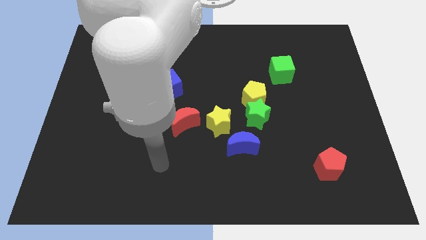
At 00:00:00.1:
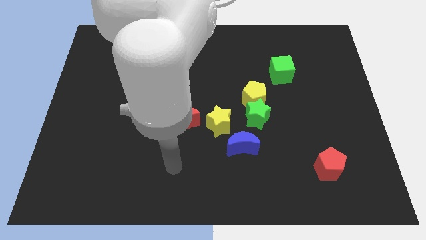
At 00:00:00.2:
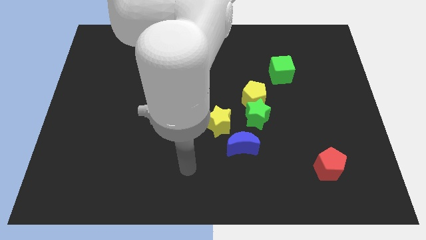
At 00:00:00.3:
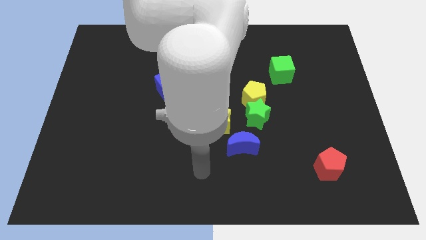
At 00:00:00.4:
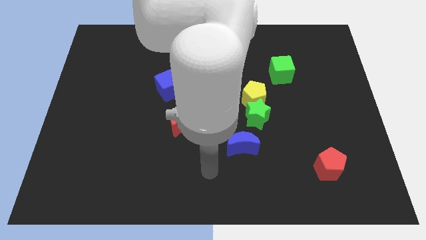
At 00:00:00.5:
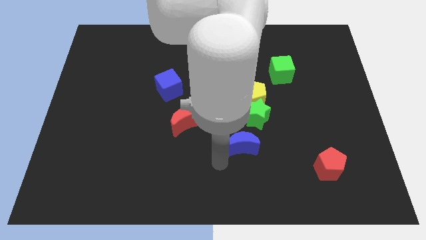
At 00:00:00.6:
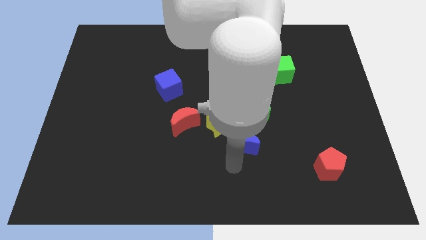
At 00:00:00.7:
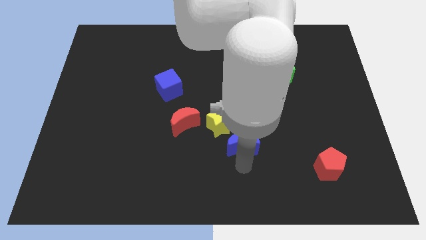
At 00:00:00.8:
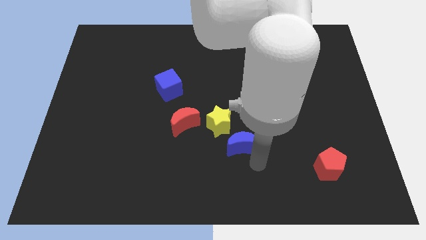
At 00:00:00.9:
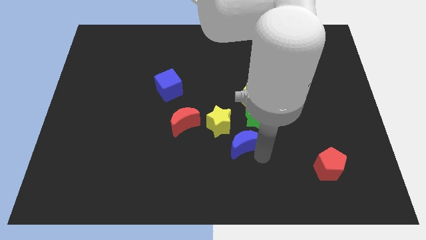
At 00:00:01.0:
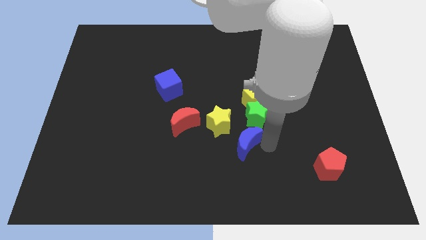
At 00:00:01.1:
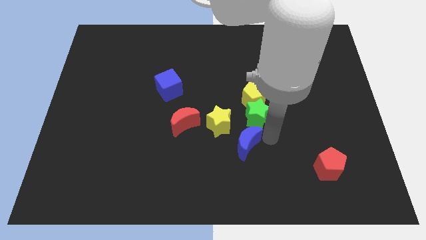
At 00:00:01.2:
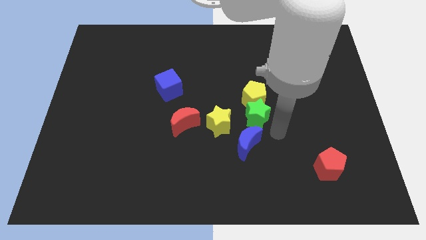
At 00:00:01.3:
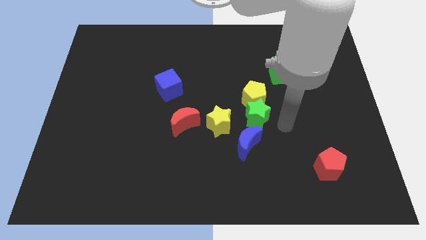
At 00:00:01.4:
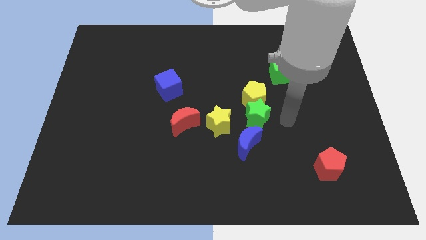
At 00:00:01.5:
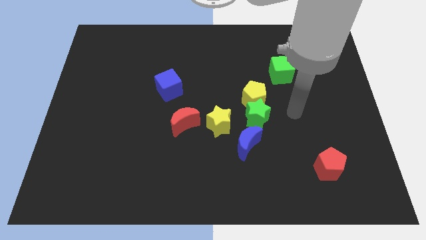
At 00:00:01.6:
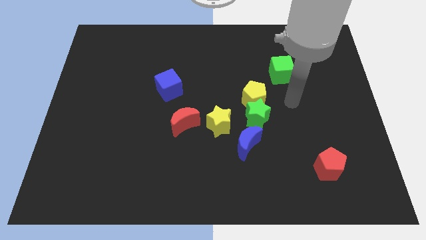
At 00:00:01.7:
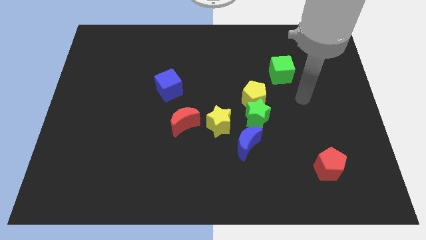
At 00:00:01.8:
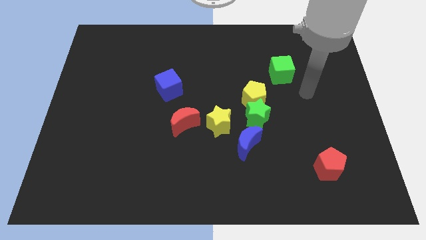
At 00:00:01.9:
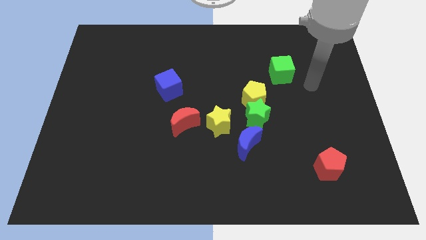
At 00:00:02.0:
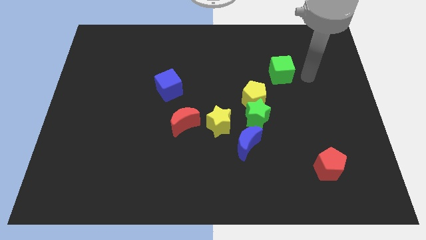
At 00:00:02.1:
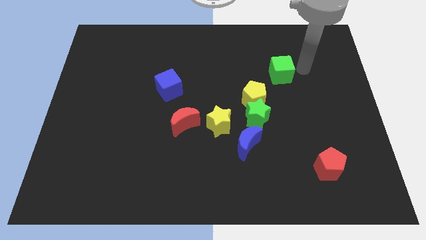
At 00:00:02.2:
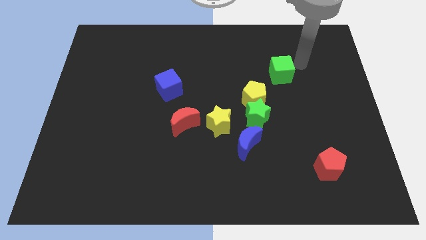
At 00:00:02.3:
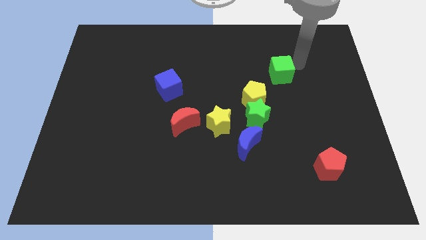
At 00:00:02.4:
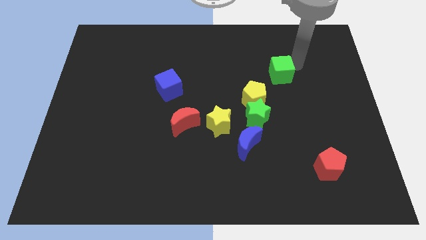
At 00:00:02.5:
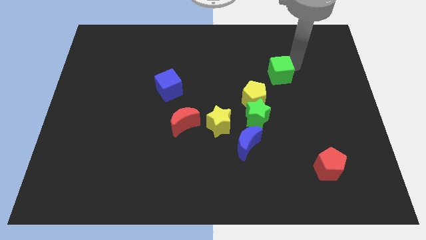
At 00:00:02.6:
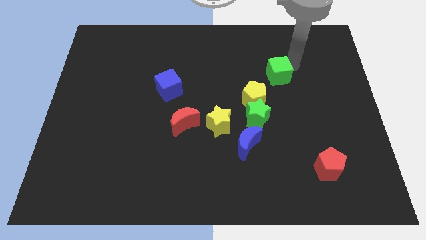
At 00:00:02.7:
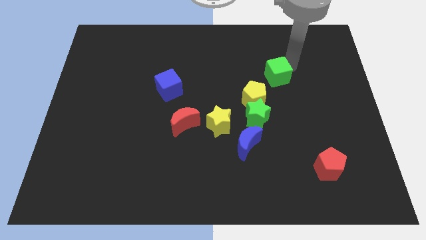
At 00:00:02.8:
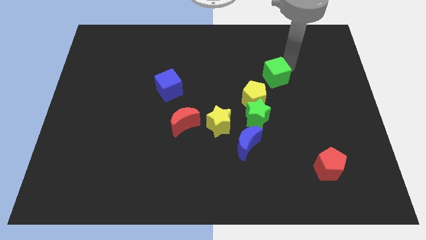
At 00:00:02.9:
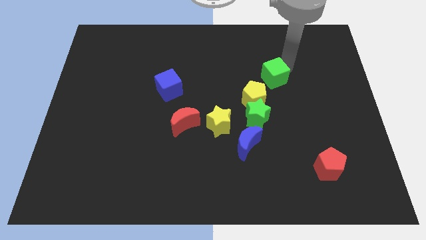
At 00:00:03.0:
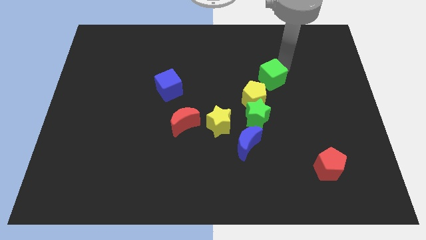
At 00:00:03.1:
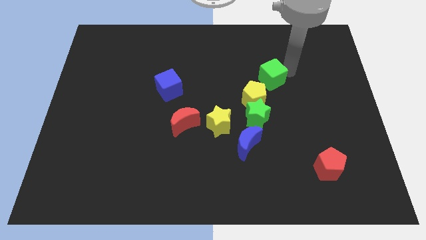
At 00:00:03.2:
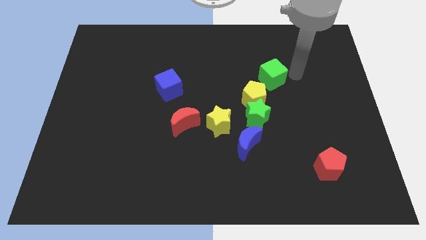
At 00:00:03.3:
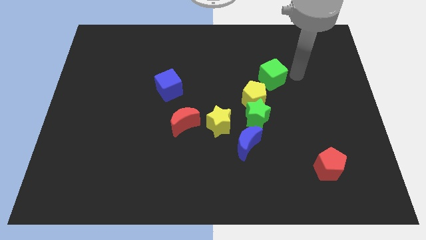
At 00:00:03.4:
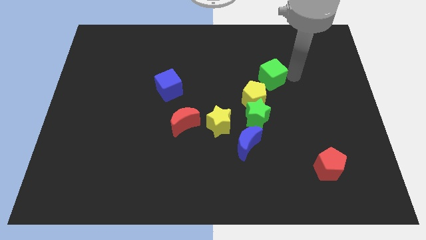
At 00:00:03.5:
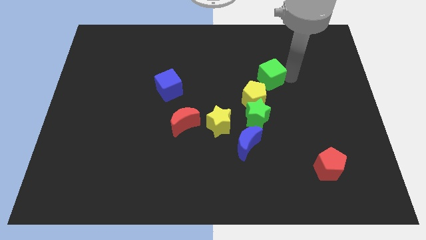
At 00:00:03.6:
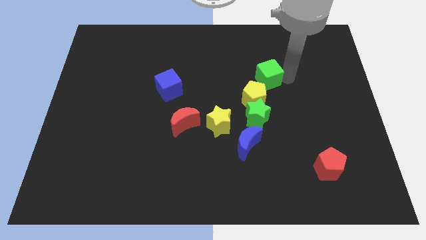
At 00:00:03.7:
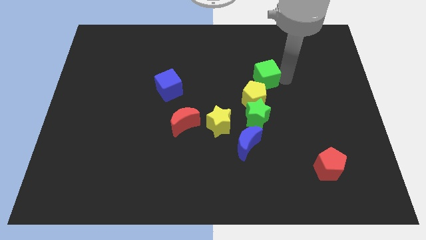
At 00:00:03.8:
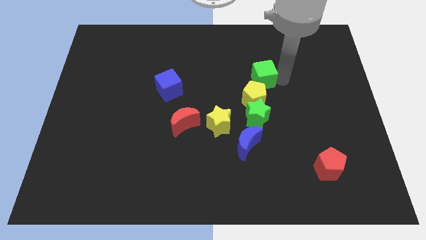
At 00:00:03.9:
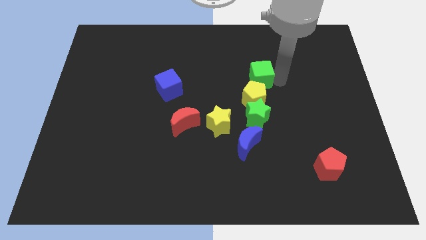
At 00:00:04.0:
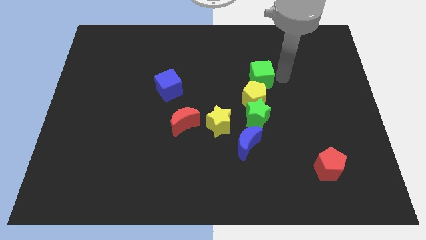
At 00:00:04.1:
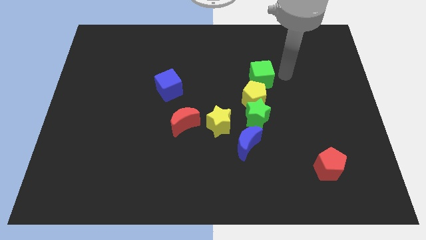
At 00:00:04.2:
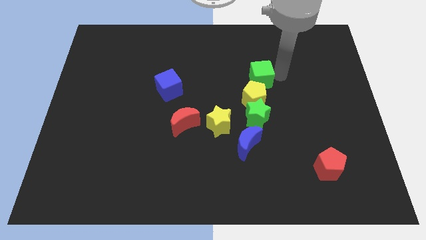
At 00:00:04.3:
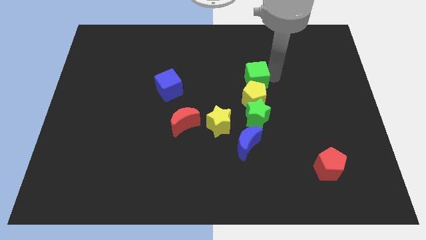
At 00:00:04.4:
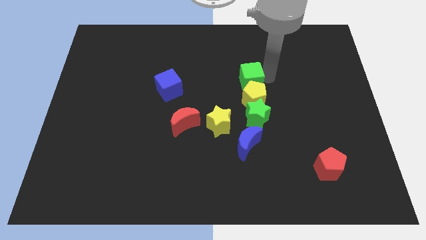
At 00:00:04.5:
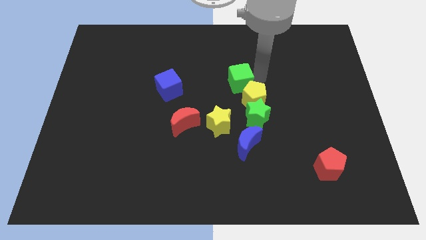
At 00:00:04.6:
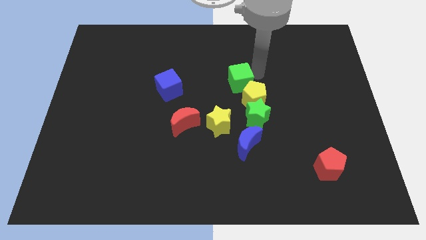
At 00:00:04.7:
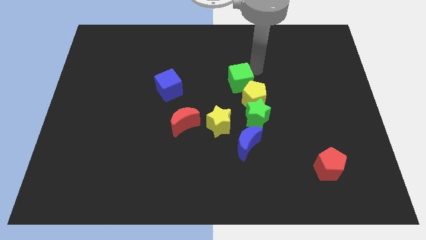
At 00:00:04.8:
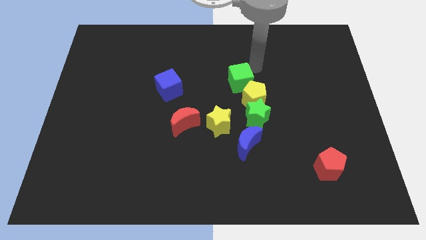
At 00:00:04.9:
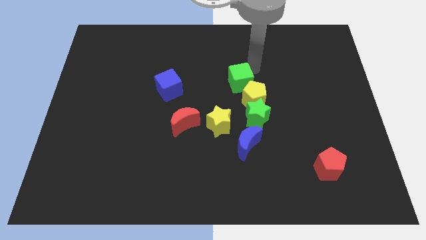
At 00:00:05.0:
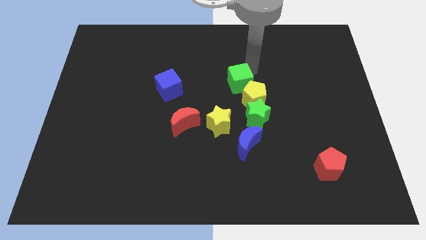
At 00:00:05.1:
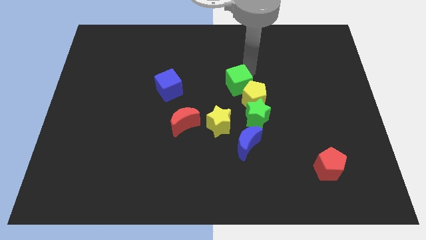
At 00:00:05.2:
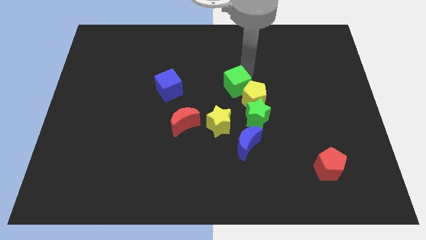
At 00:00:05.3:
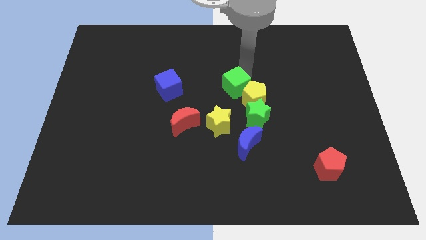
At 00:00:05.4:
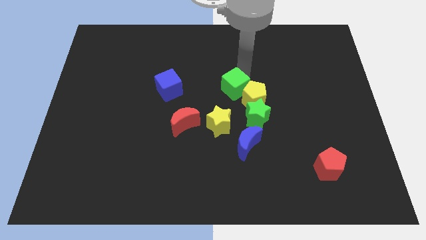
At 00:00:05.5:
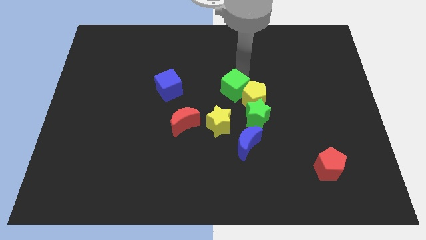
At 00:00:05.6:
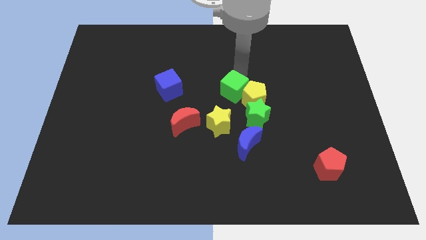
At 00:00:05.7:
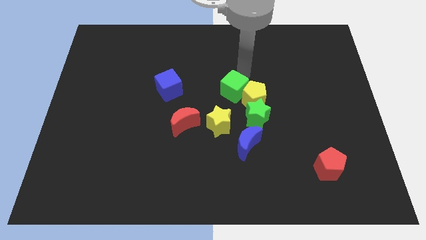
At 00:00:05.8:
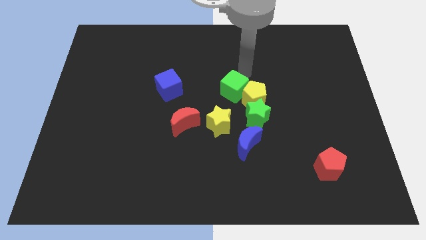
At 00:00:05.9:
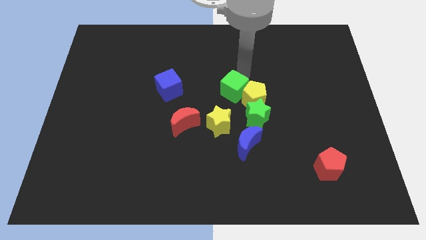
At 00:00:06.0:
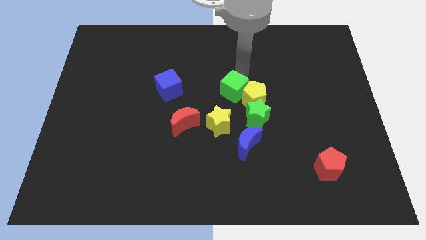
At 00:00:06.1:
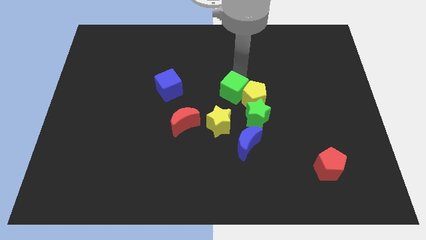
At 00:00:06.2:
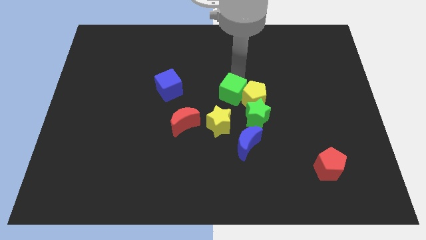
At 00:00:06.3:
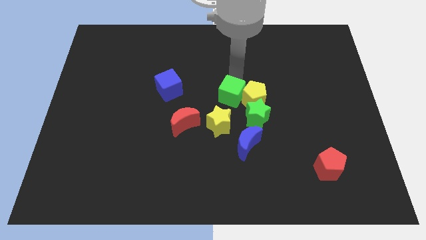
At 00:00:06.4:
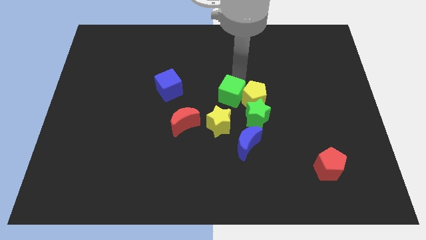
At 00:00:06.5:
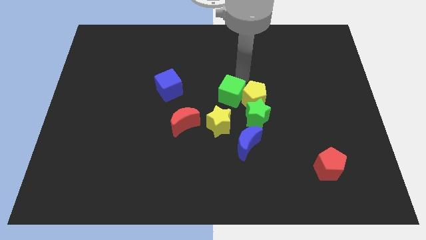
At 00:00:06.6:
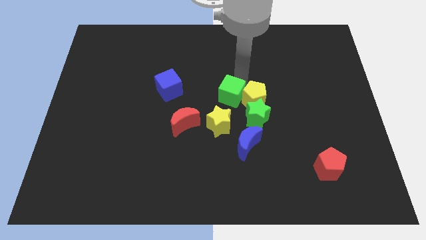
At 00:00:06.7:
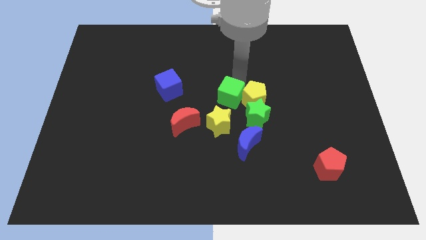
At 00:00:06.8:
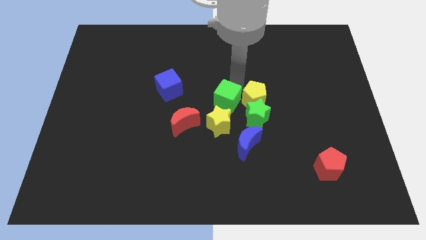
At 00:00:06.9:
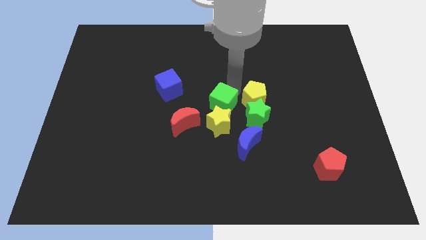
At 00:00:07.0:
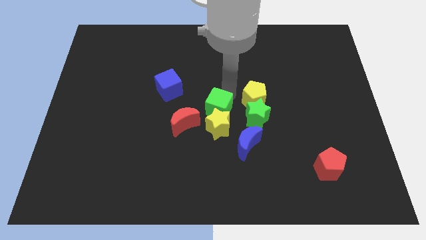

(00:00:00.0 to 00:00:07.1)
move the green cube next to the yellow star

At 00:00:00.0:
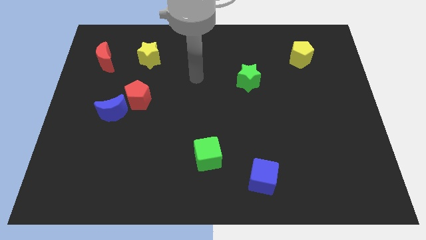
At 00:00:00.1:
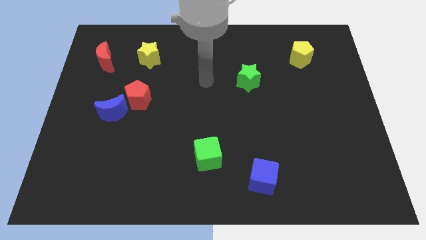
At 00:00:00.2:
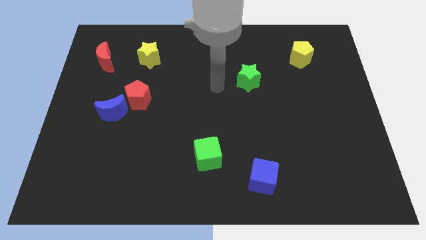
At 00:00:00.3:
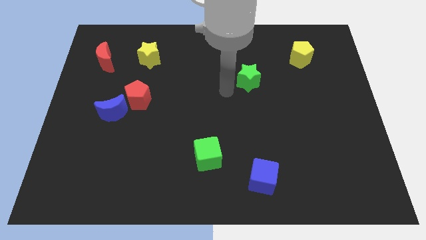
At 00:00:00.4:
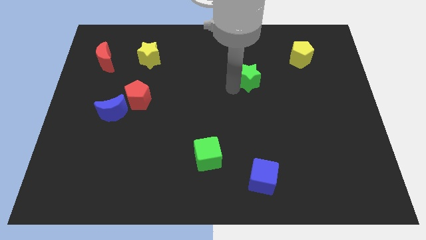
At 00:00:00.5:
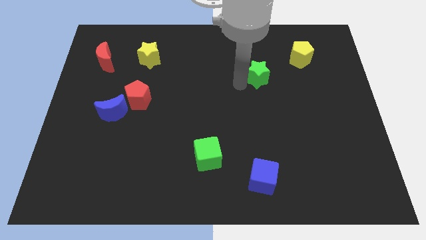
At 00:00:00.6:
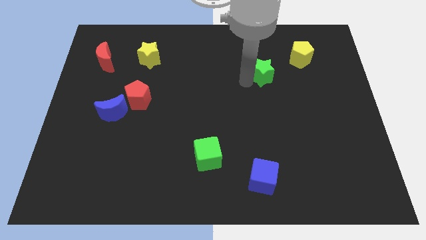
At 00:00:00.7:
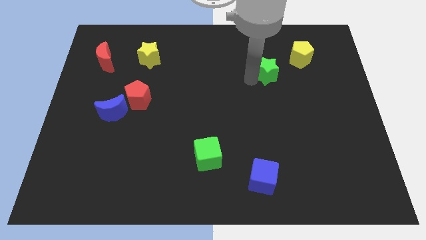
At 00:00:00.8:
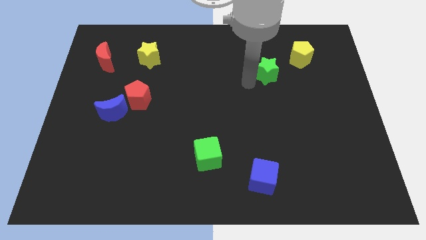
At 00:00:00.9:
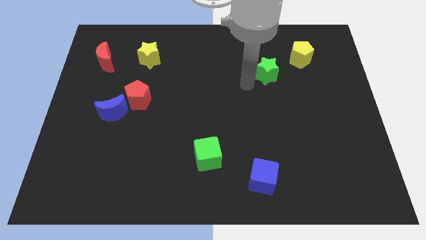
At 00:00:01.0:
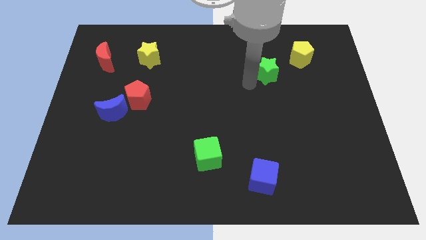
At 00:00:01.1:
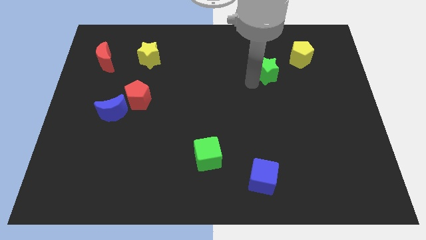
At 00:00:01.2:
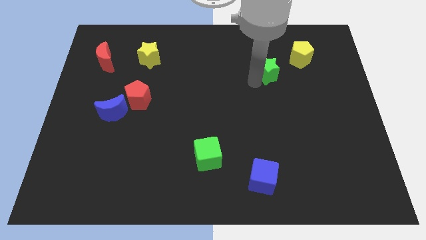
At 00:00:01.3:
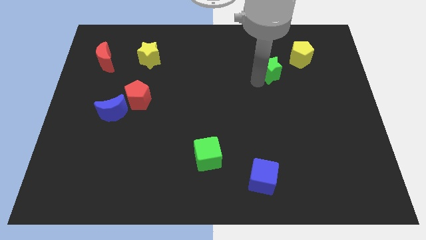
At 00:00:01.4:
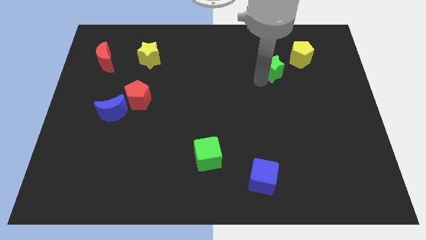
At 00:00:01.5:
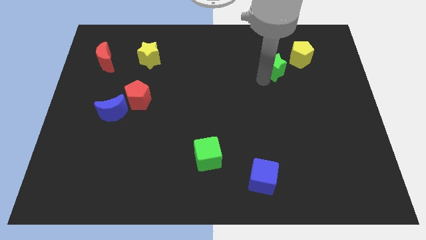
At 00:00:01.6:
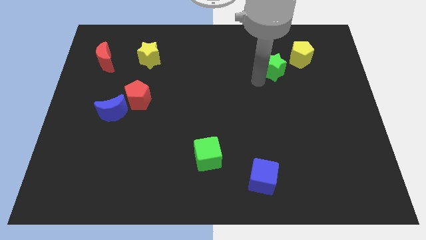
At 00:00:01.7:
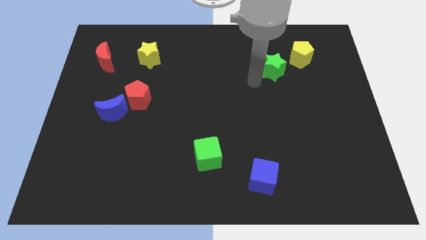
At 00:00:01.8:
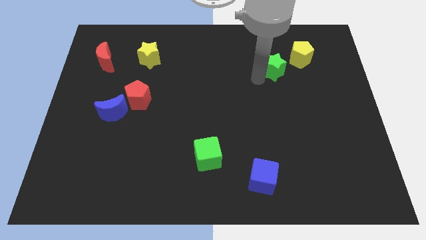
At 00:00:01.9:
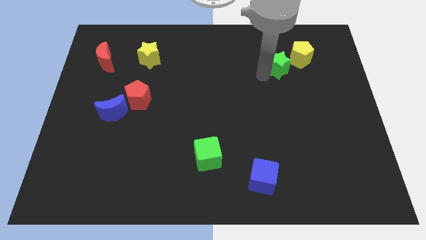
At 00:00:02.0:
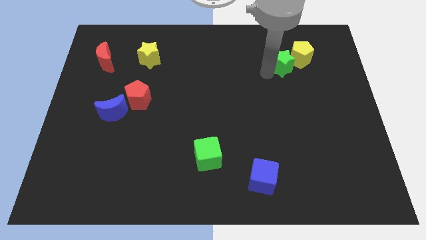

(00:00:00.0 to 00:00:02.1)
put the green star towards the yellow pentagon
